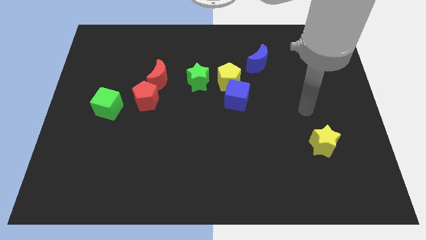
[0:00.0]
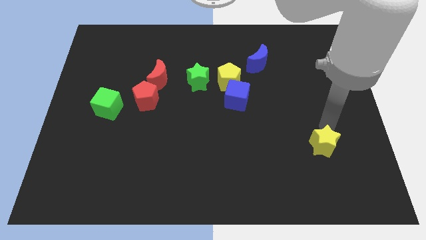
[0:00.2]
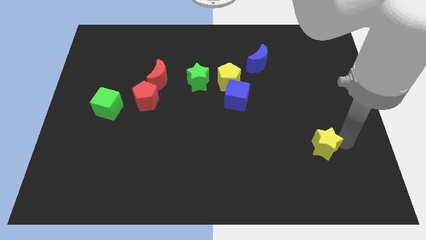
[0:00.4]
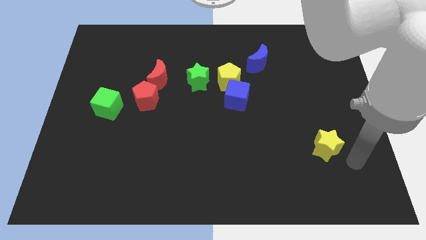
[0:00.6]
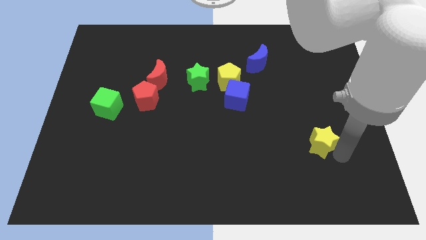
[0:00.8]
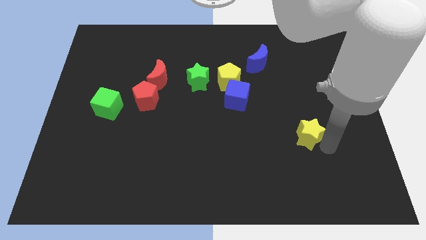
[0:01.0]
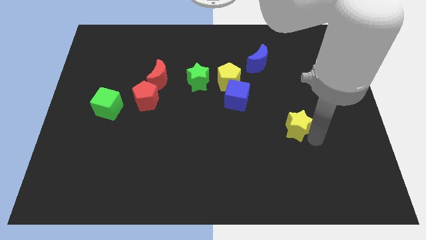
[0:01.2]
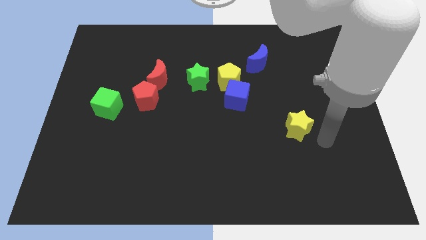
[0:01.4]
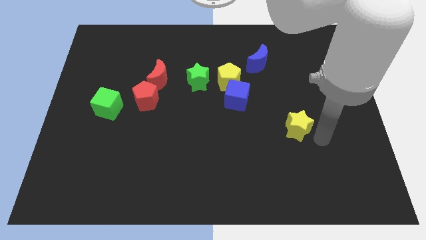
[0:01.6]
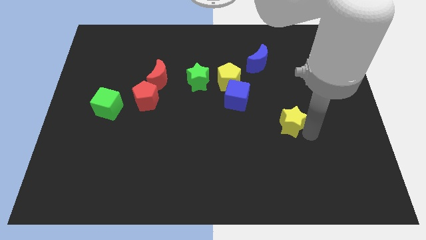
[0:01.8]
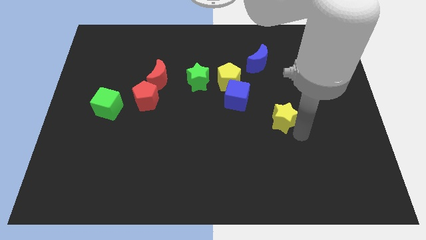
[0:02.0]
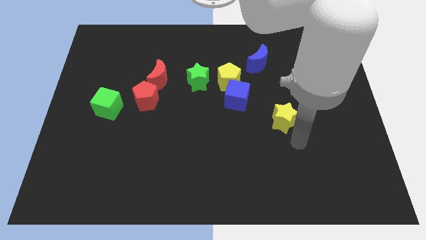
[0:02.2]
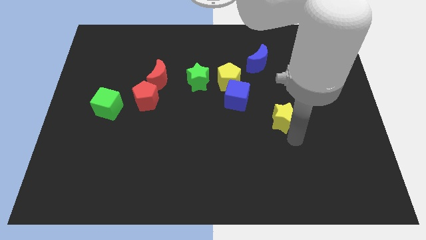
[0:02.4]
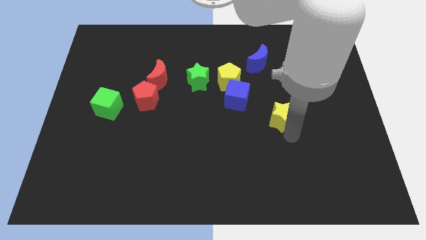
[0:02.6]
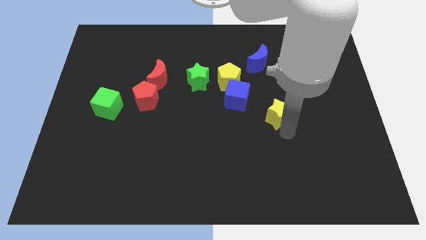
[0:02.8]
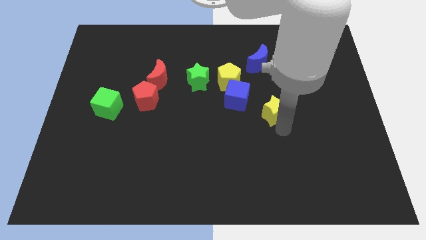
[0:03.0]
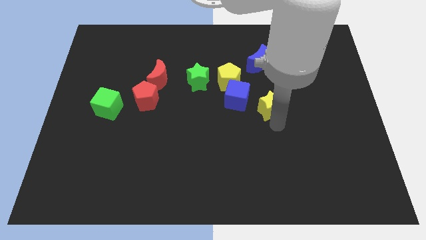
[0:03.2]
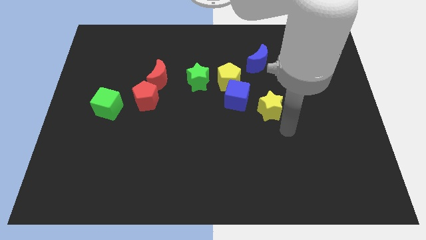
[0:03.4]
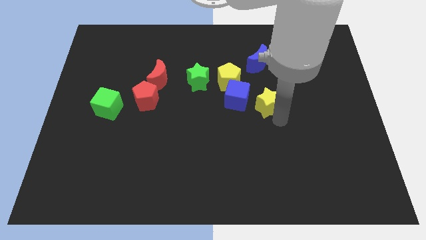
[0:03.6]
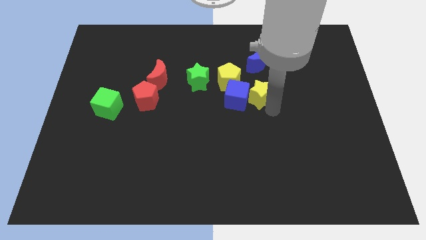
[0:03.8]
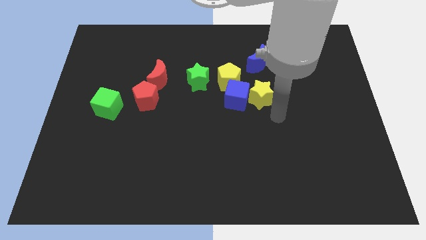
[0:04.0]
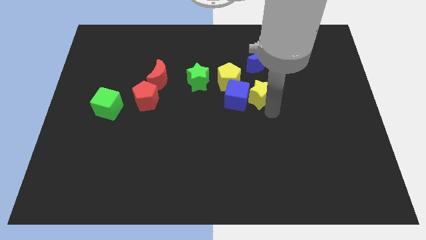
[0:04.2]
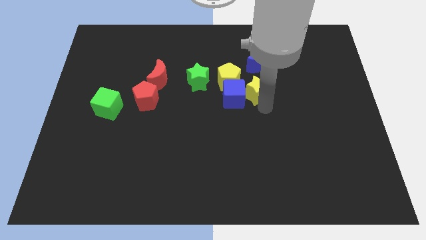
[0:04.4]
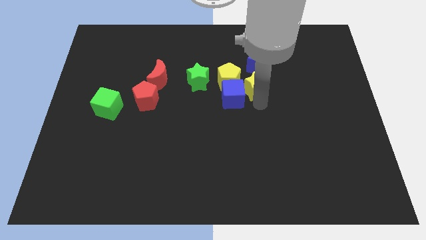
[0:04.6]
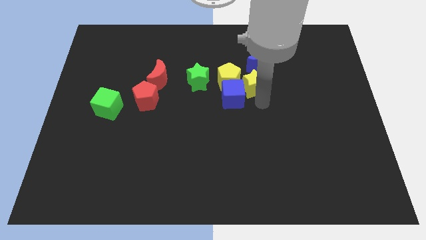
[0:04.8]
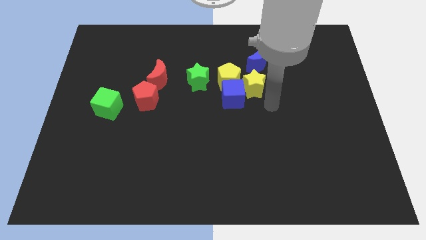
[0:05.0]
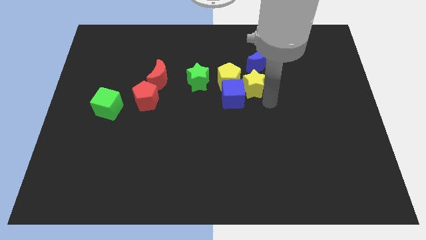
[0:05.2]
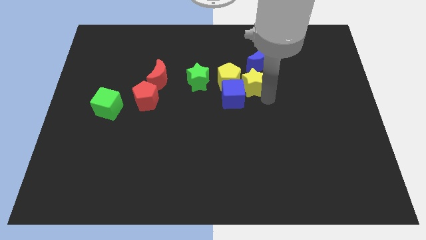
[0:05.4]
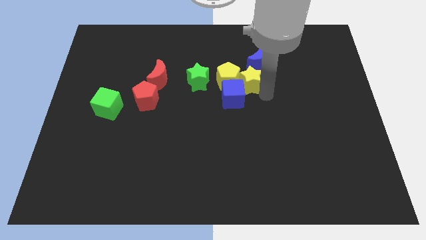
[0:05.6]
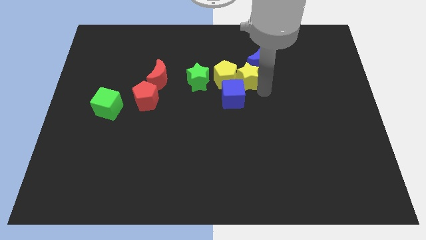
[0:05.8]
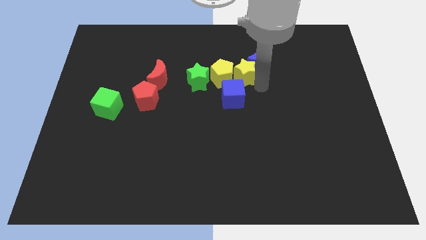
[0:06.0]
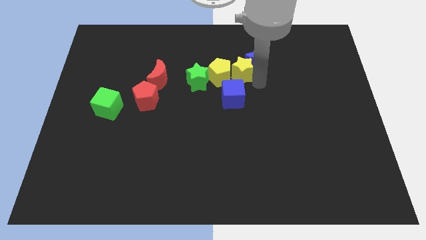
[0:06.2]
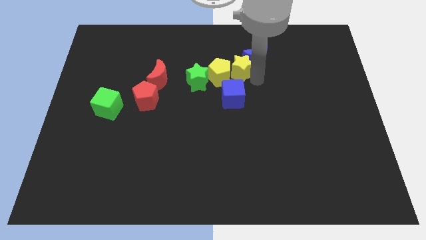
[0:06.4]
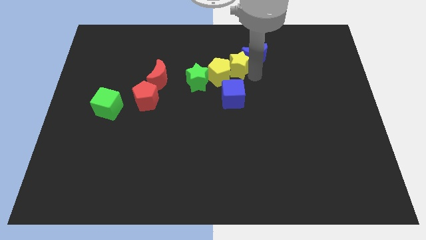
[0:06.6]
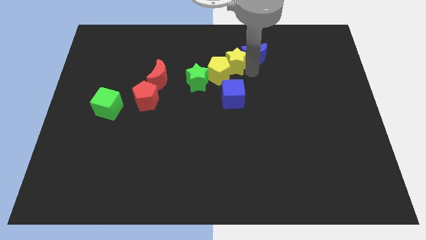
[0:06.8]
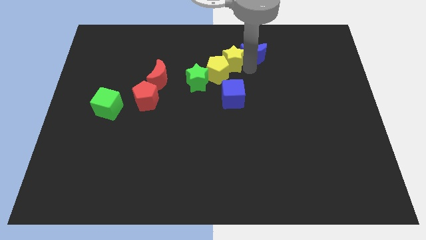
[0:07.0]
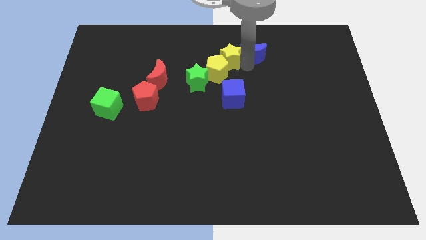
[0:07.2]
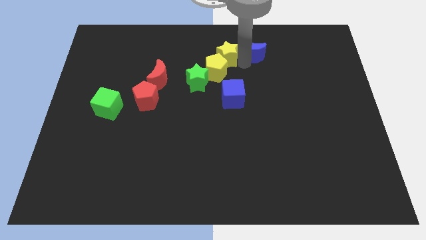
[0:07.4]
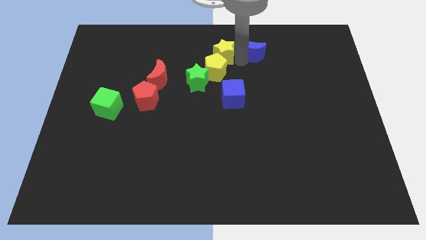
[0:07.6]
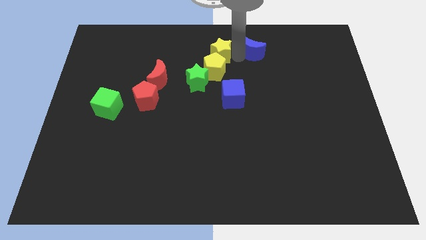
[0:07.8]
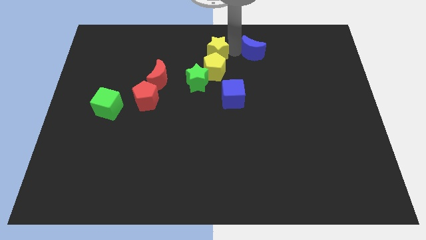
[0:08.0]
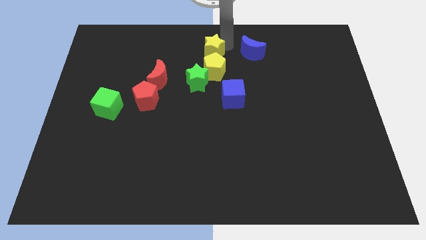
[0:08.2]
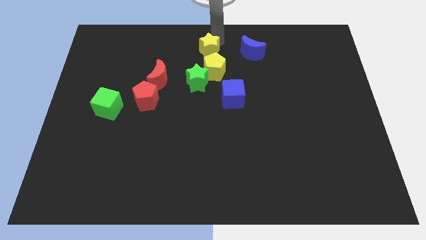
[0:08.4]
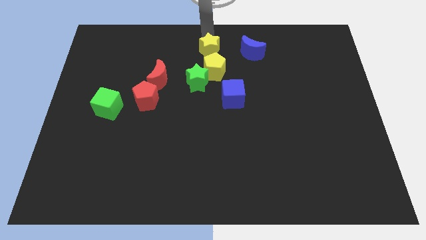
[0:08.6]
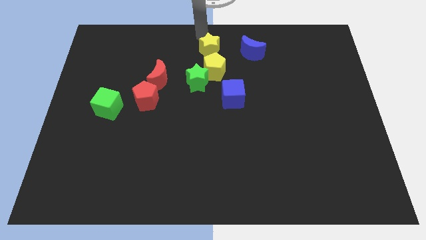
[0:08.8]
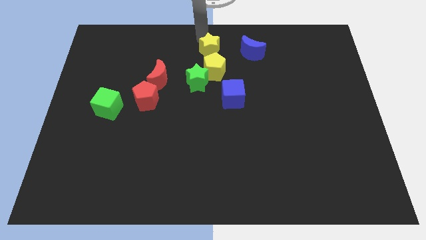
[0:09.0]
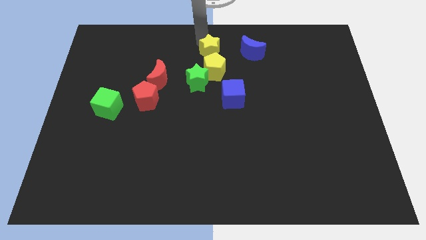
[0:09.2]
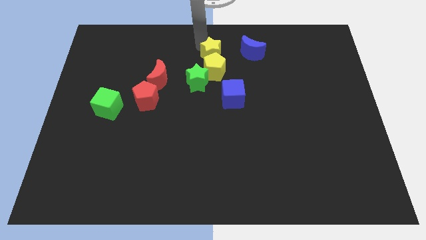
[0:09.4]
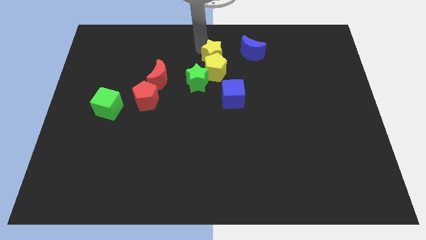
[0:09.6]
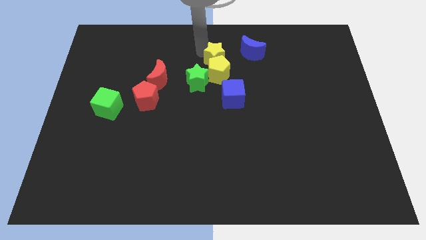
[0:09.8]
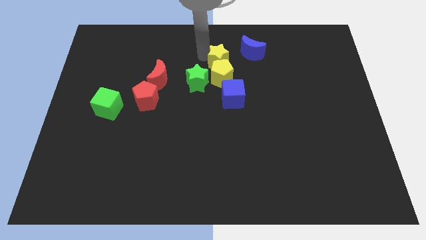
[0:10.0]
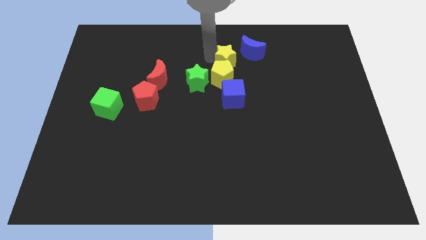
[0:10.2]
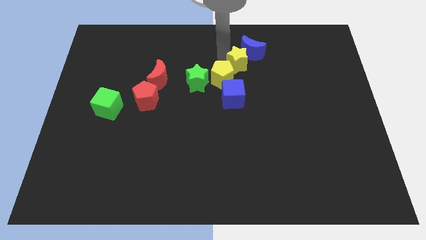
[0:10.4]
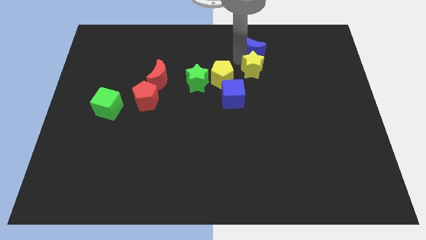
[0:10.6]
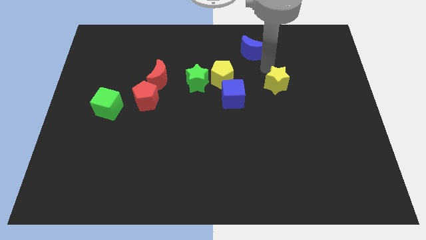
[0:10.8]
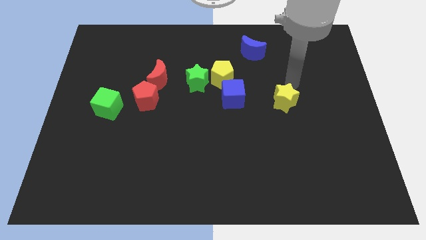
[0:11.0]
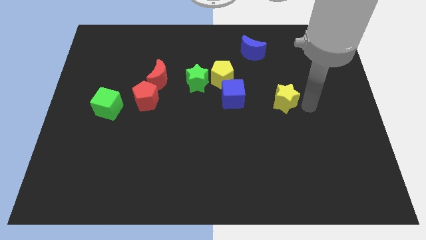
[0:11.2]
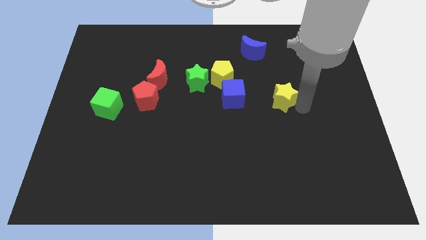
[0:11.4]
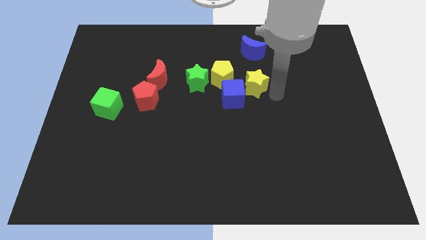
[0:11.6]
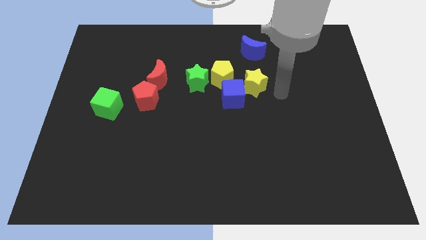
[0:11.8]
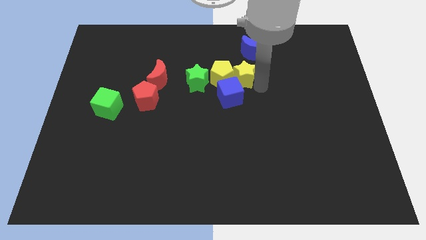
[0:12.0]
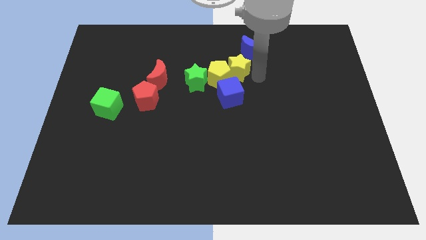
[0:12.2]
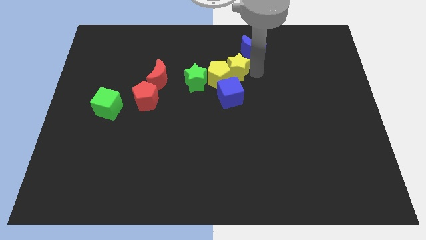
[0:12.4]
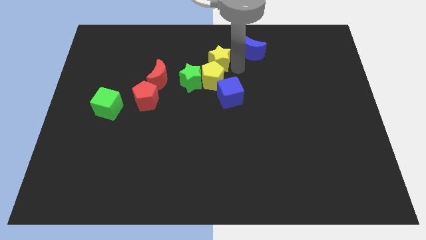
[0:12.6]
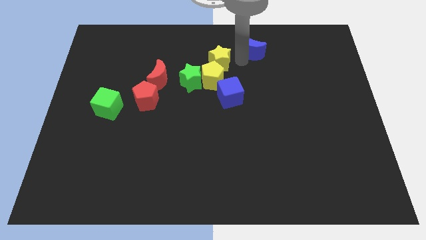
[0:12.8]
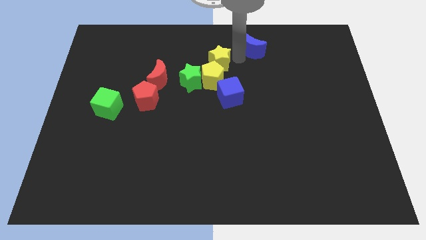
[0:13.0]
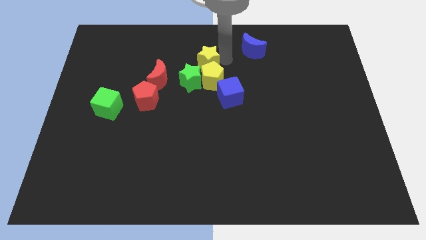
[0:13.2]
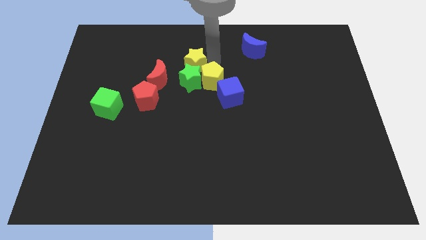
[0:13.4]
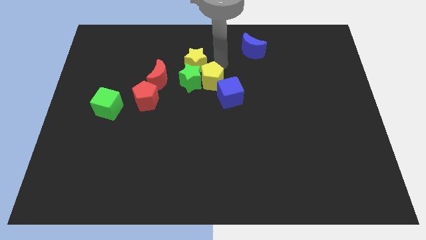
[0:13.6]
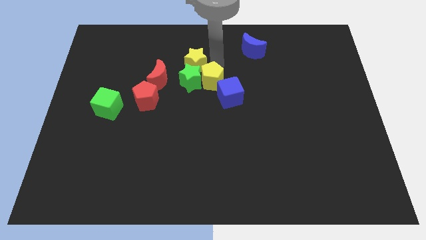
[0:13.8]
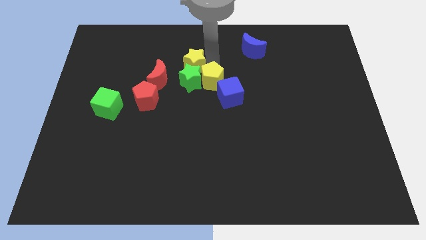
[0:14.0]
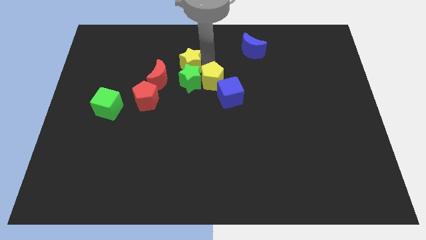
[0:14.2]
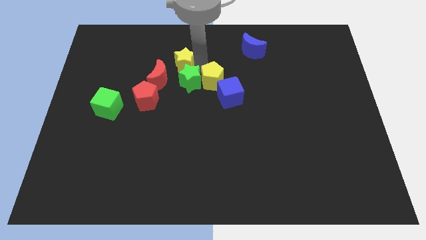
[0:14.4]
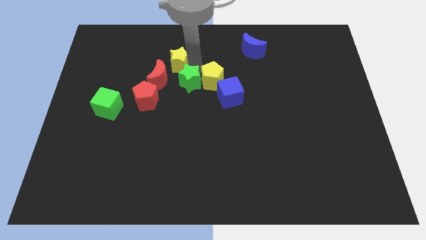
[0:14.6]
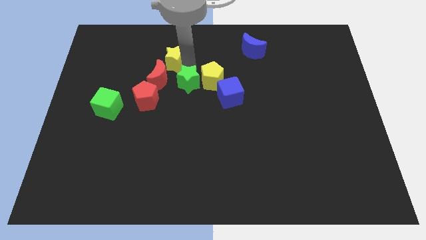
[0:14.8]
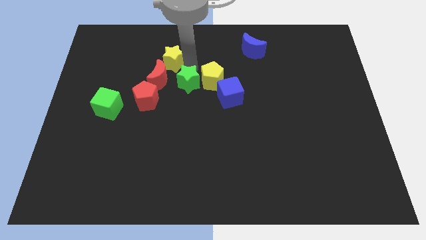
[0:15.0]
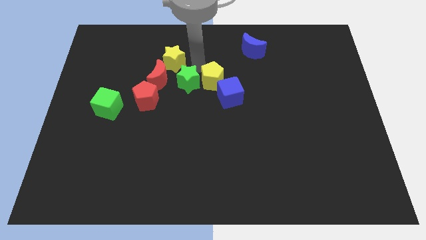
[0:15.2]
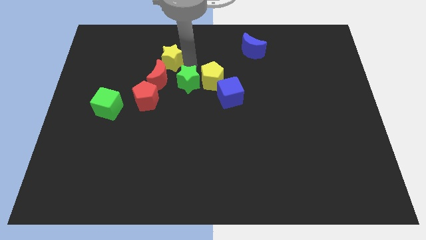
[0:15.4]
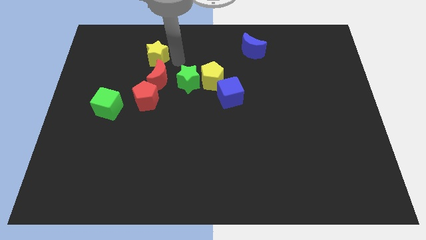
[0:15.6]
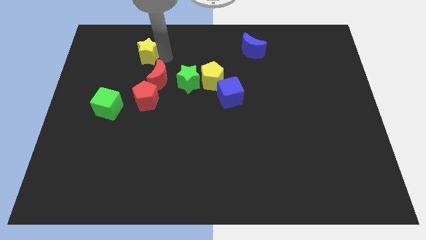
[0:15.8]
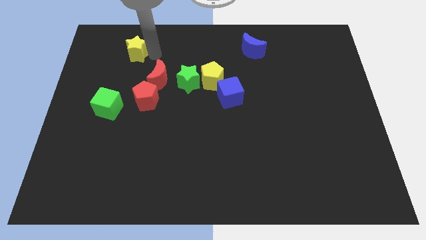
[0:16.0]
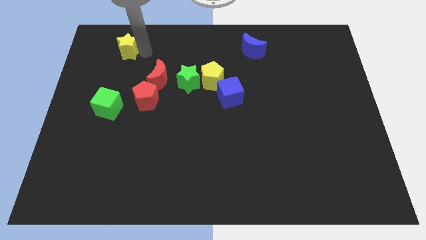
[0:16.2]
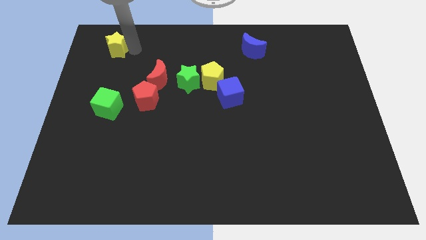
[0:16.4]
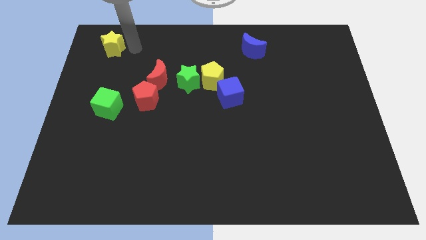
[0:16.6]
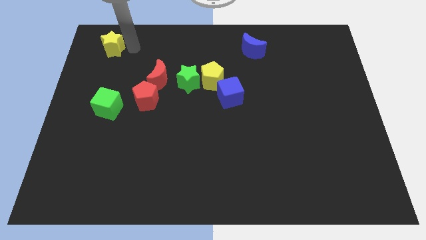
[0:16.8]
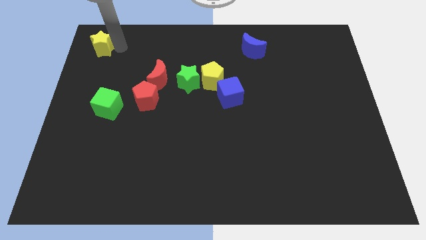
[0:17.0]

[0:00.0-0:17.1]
push the yellow star to the top left
